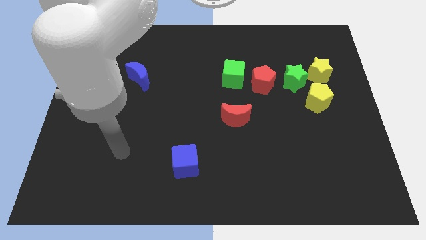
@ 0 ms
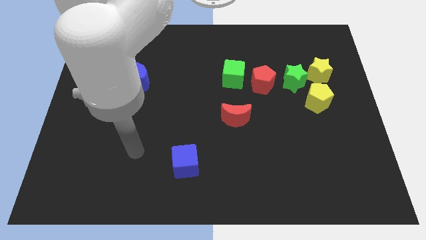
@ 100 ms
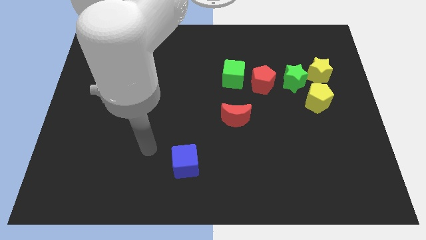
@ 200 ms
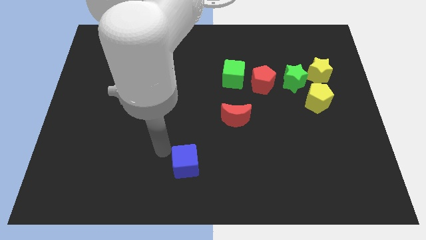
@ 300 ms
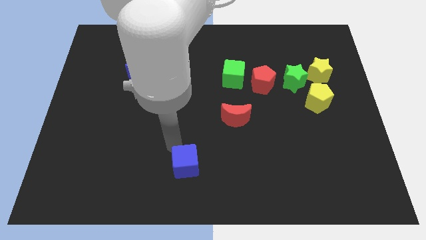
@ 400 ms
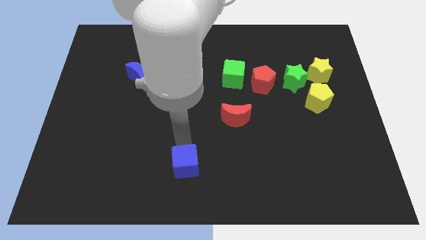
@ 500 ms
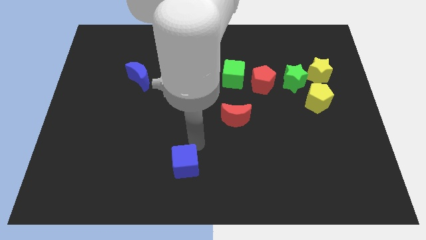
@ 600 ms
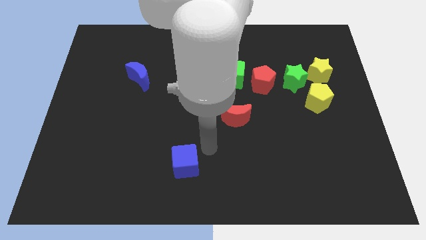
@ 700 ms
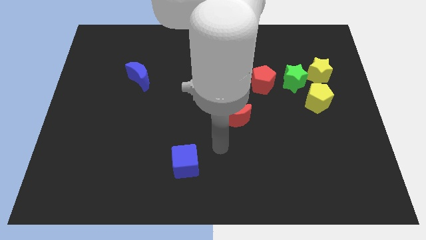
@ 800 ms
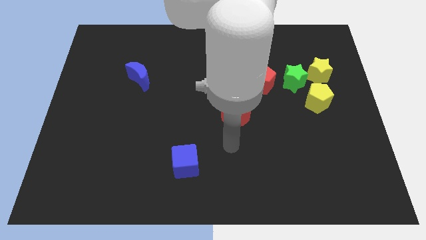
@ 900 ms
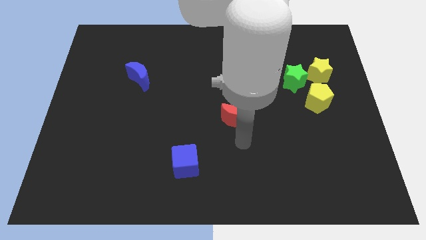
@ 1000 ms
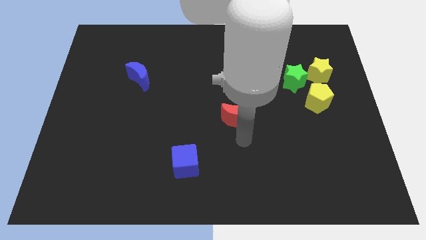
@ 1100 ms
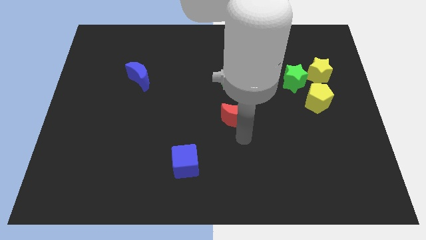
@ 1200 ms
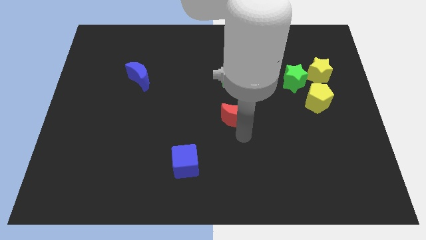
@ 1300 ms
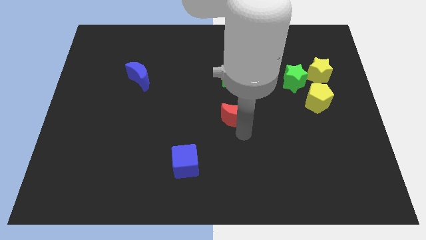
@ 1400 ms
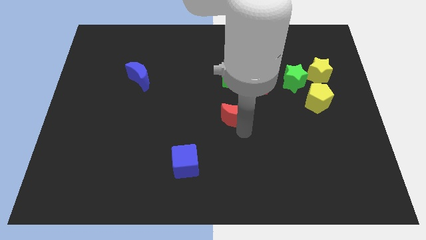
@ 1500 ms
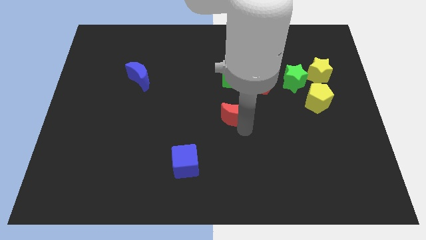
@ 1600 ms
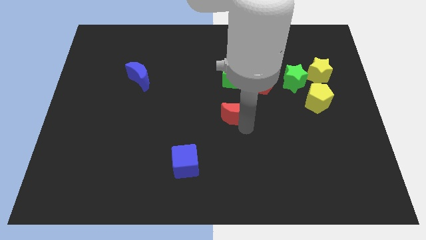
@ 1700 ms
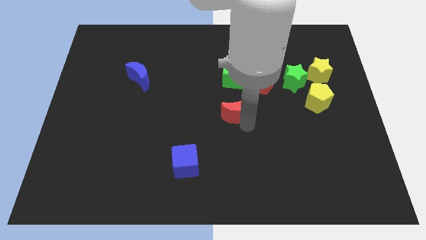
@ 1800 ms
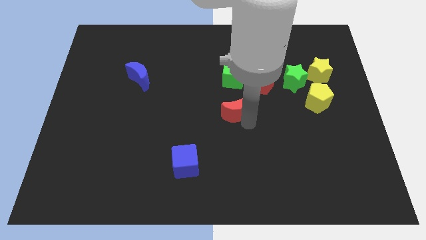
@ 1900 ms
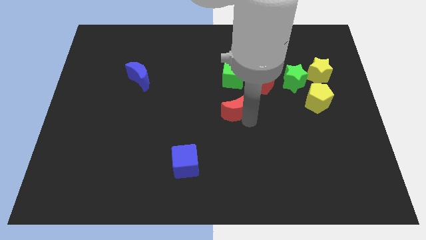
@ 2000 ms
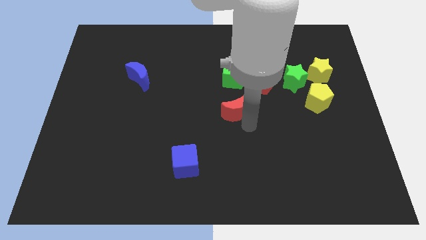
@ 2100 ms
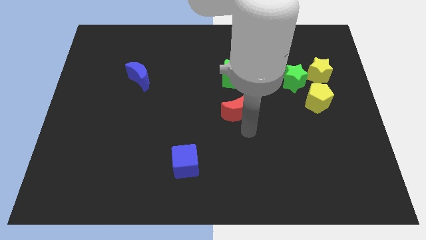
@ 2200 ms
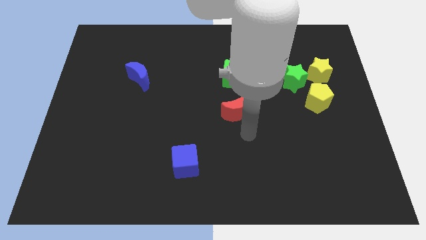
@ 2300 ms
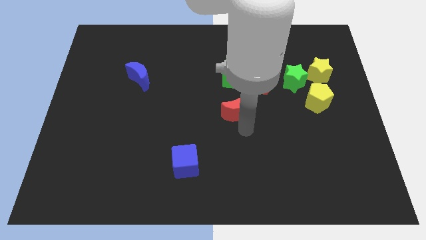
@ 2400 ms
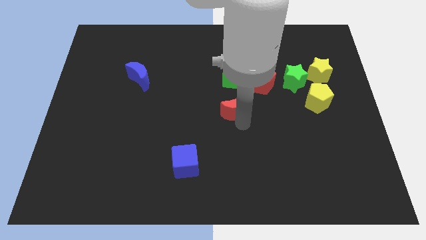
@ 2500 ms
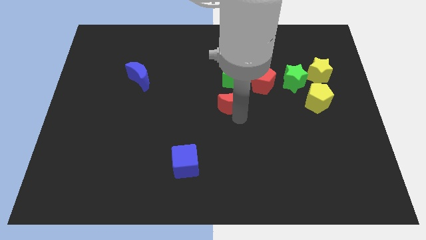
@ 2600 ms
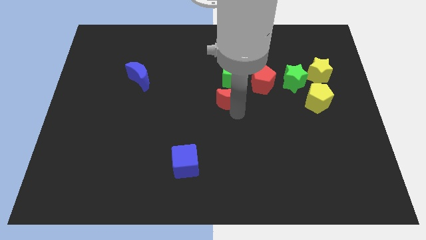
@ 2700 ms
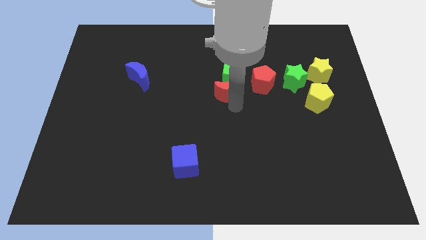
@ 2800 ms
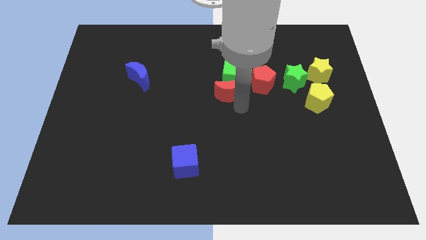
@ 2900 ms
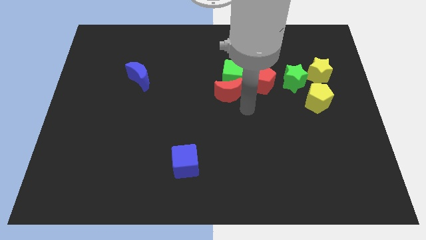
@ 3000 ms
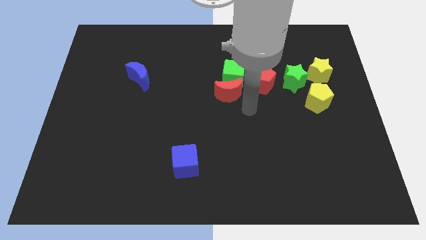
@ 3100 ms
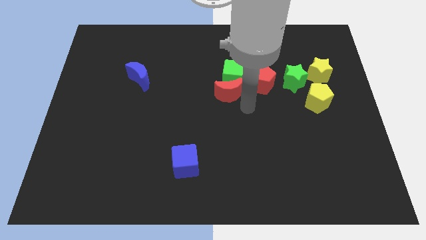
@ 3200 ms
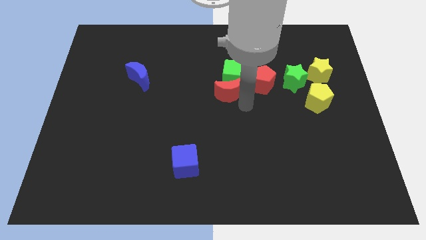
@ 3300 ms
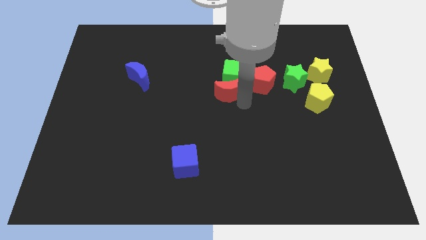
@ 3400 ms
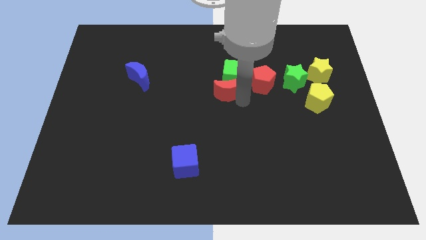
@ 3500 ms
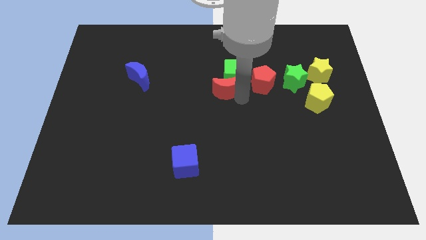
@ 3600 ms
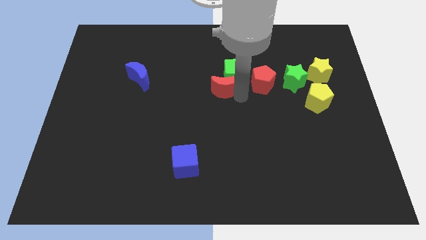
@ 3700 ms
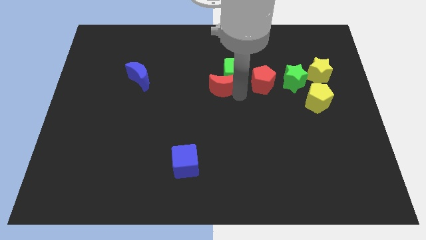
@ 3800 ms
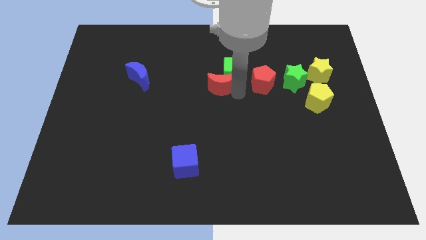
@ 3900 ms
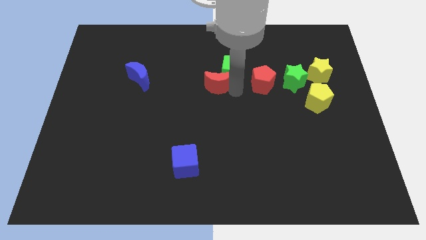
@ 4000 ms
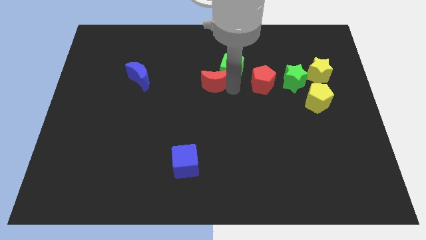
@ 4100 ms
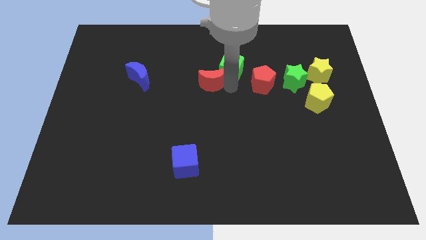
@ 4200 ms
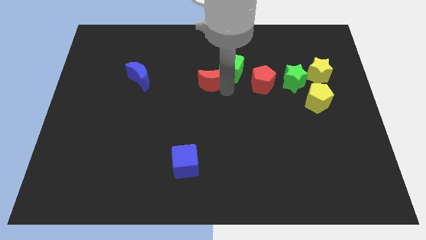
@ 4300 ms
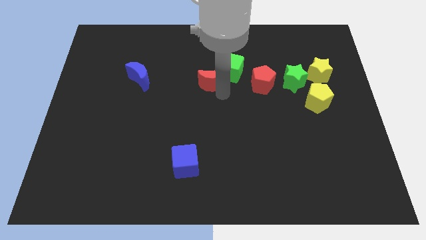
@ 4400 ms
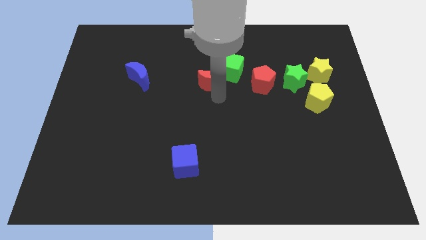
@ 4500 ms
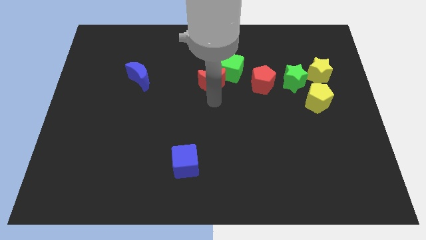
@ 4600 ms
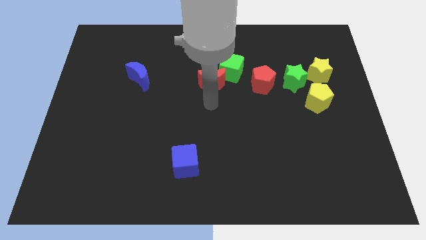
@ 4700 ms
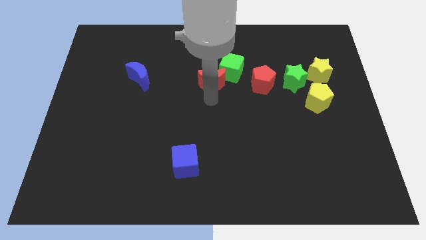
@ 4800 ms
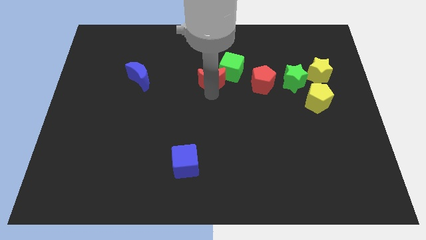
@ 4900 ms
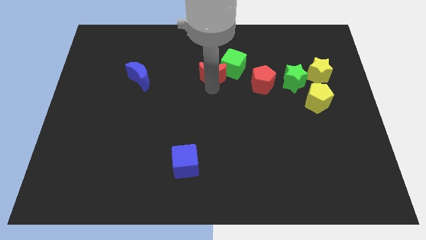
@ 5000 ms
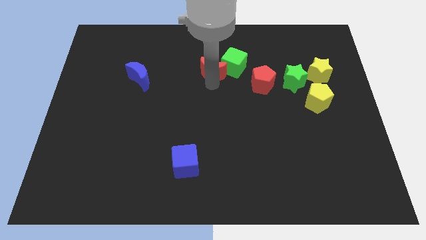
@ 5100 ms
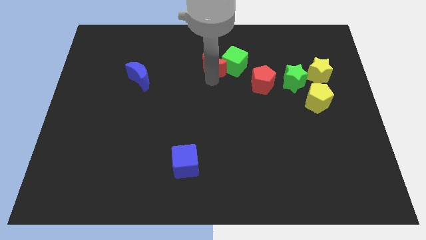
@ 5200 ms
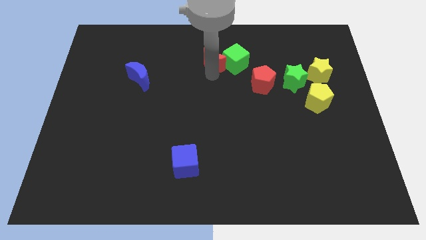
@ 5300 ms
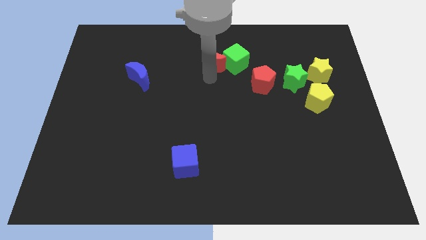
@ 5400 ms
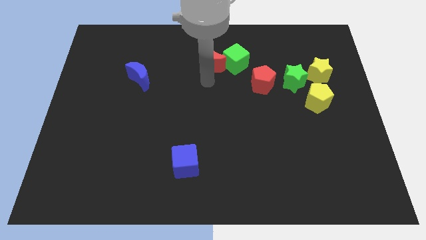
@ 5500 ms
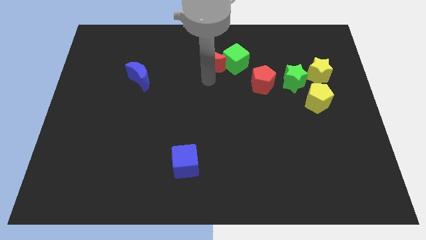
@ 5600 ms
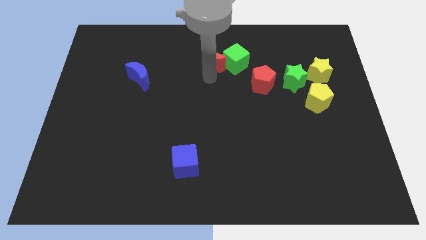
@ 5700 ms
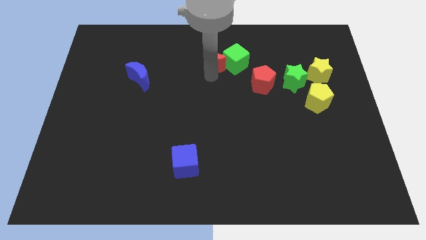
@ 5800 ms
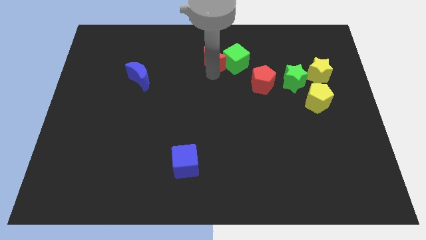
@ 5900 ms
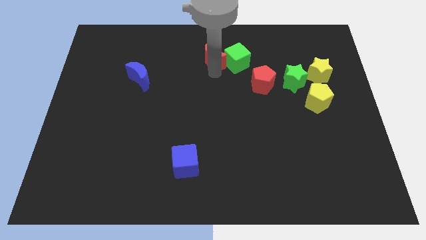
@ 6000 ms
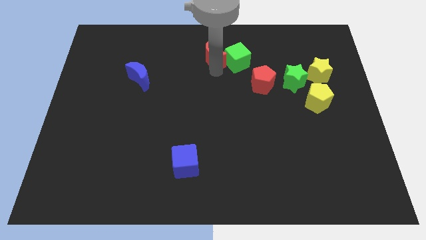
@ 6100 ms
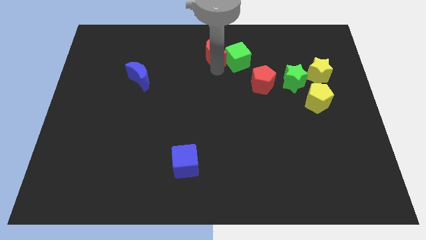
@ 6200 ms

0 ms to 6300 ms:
push the red moon to the towards your base

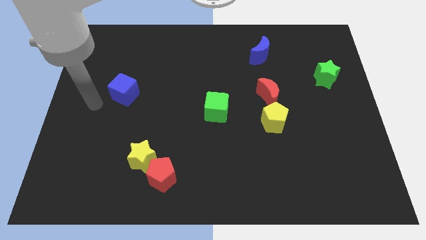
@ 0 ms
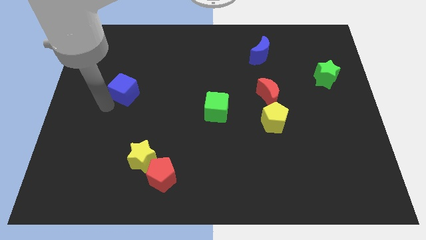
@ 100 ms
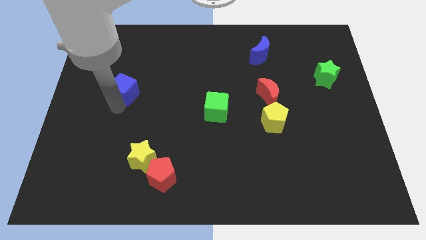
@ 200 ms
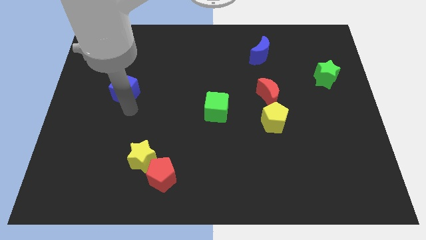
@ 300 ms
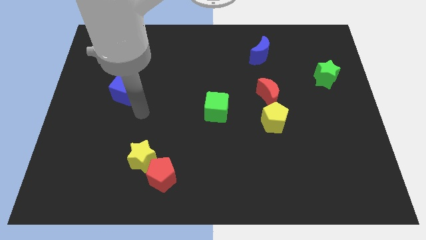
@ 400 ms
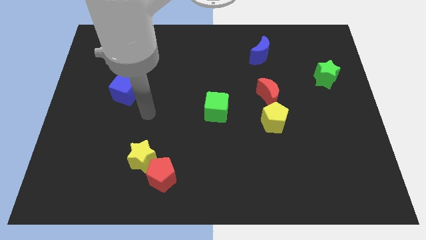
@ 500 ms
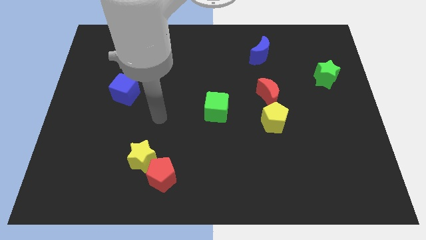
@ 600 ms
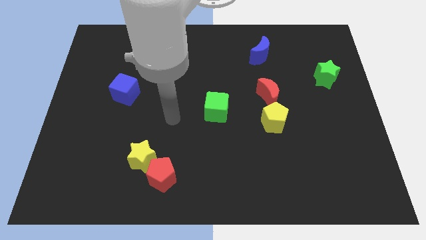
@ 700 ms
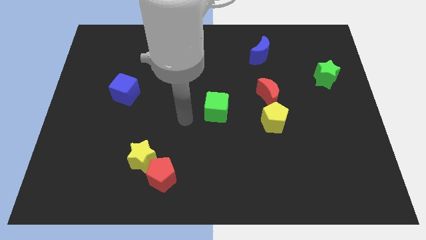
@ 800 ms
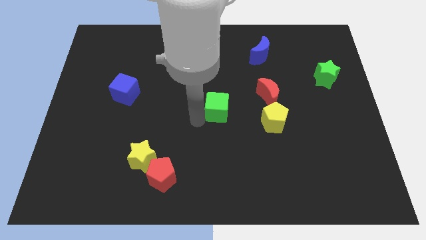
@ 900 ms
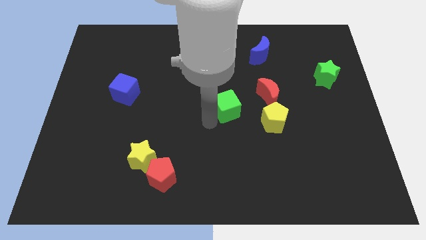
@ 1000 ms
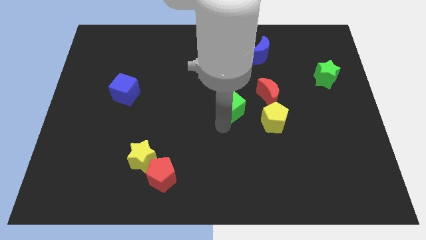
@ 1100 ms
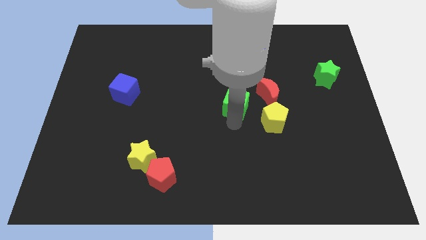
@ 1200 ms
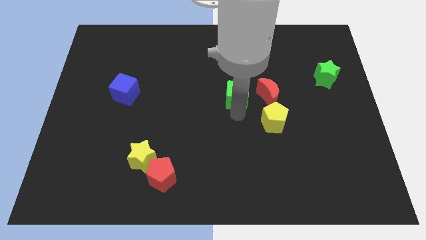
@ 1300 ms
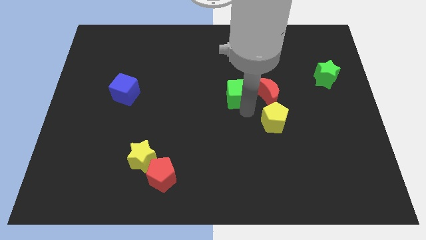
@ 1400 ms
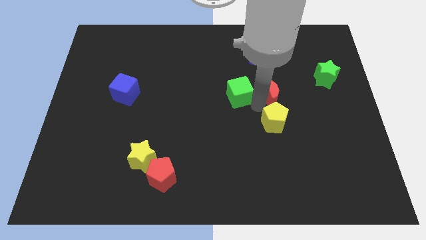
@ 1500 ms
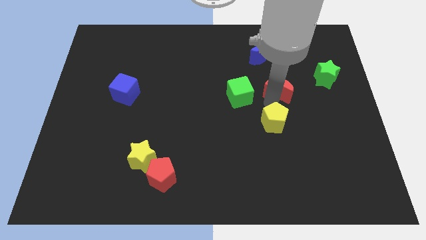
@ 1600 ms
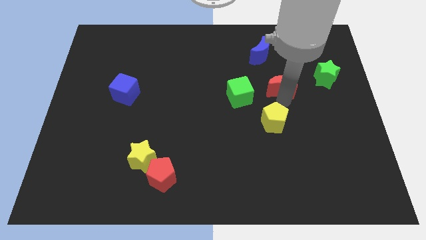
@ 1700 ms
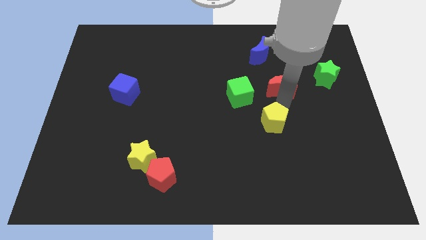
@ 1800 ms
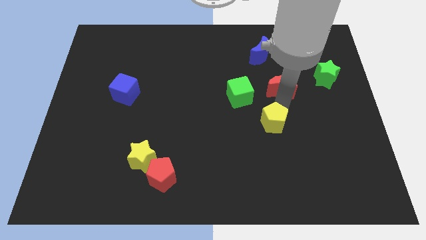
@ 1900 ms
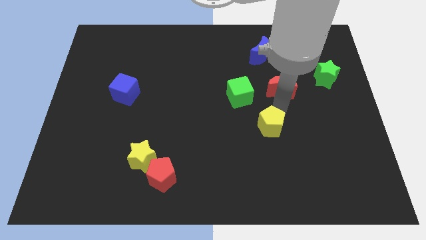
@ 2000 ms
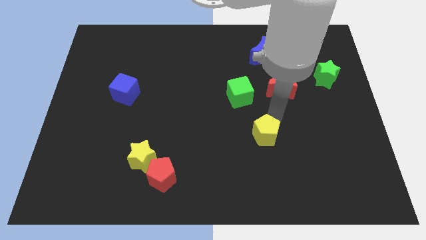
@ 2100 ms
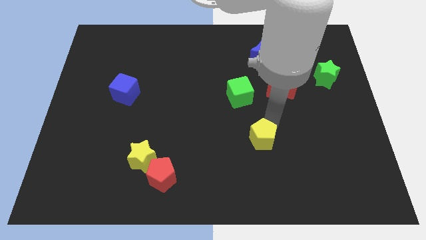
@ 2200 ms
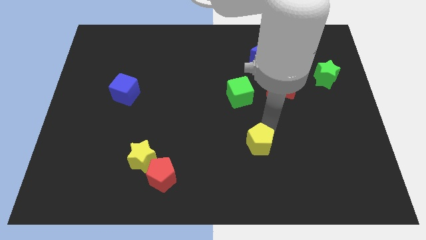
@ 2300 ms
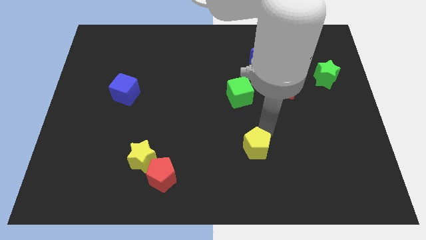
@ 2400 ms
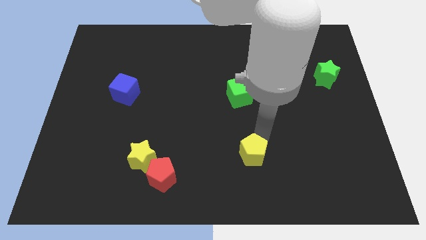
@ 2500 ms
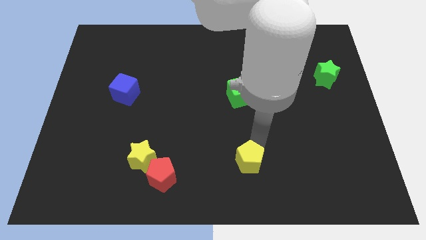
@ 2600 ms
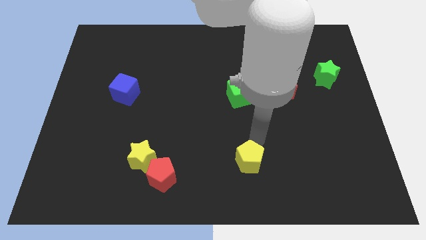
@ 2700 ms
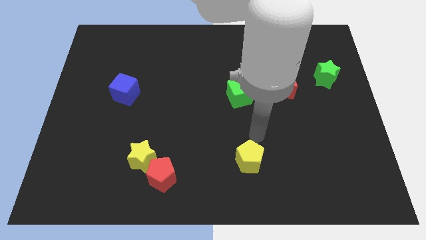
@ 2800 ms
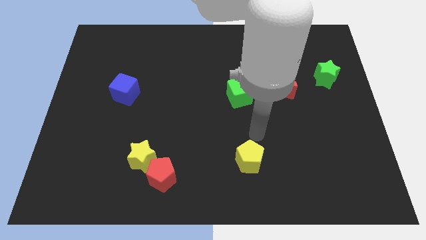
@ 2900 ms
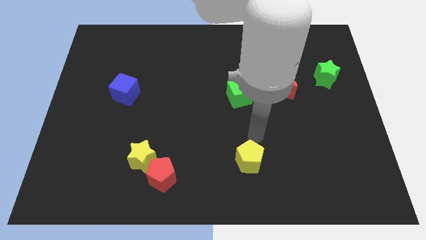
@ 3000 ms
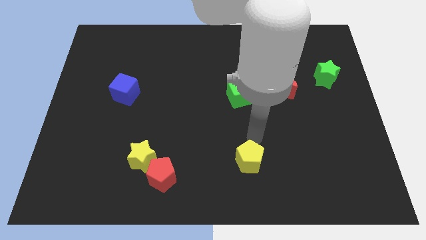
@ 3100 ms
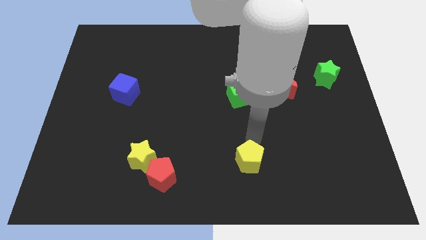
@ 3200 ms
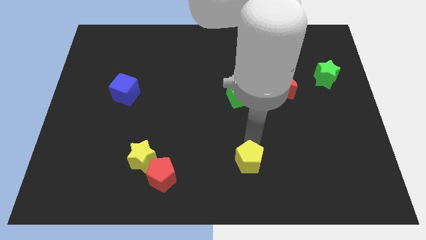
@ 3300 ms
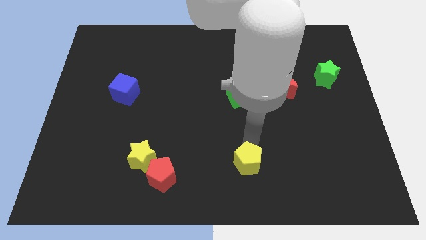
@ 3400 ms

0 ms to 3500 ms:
put the yellow pentagon to the bottom side
